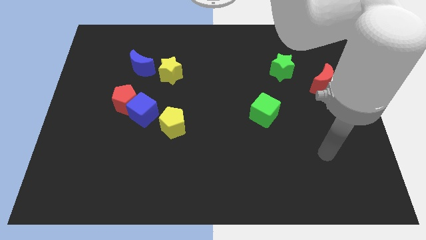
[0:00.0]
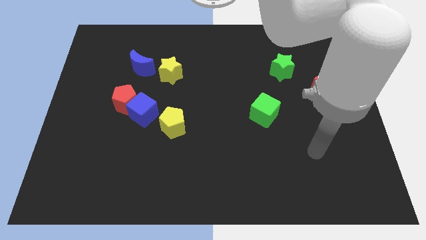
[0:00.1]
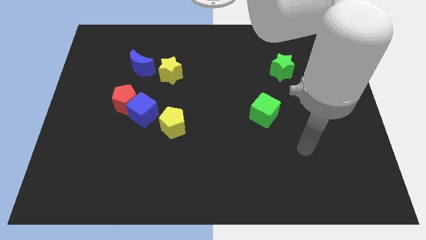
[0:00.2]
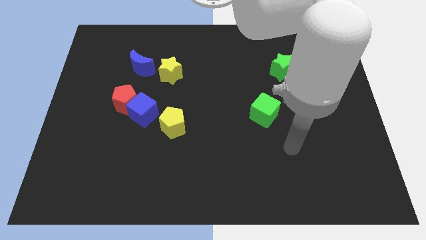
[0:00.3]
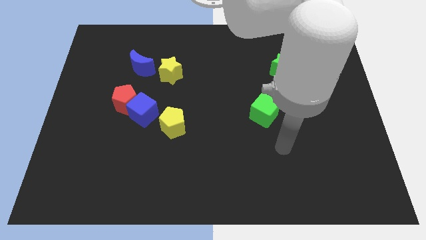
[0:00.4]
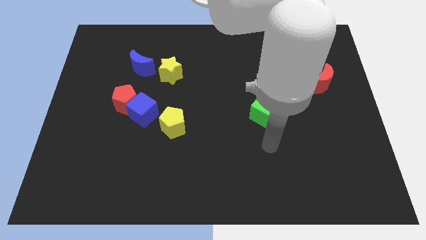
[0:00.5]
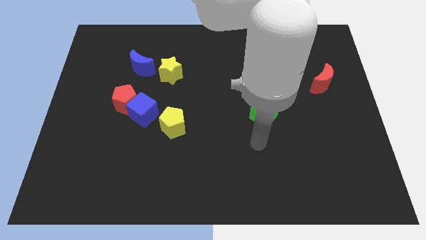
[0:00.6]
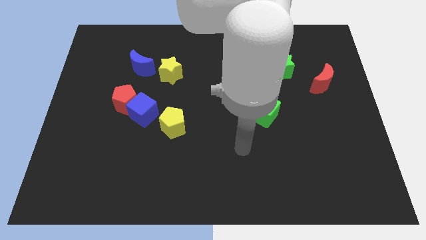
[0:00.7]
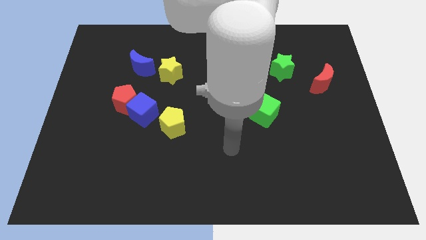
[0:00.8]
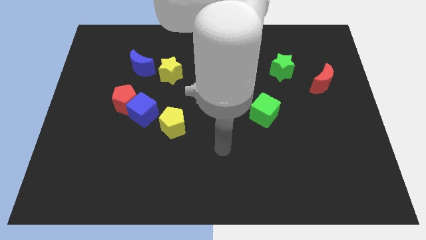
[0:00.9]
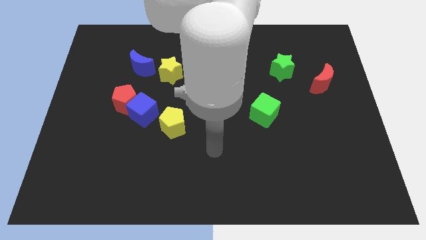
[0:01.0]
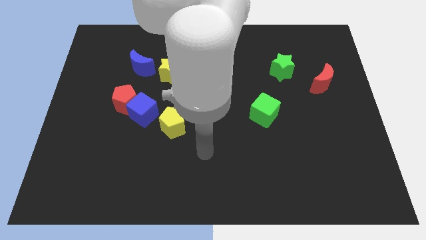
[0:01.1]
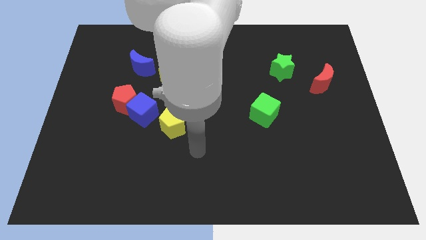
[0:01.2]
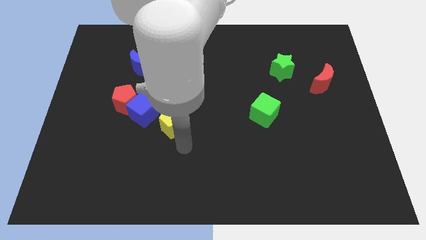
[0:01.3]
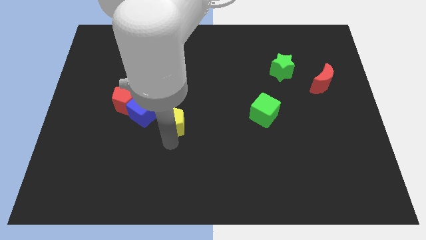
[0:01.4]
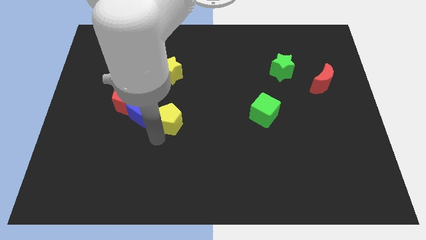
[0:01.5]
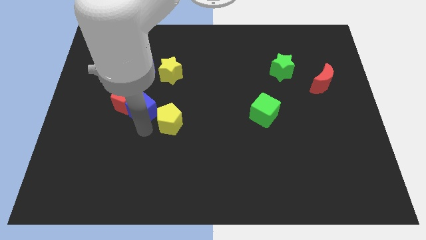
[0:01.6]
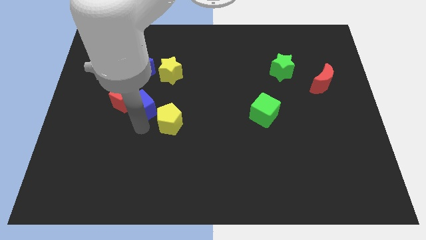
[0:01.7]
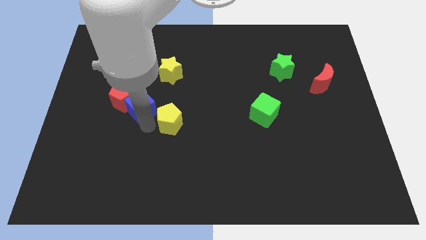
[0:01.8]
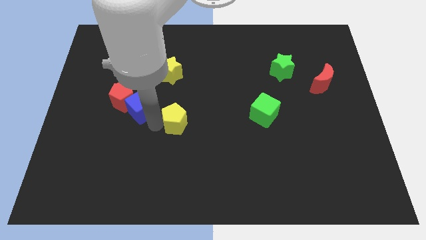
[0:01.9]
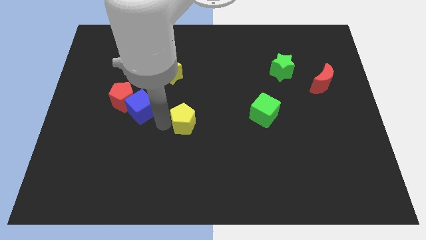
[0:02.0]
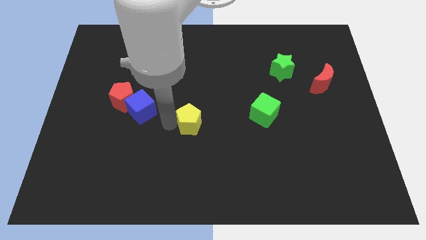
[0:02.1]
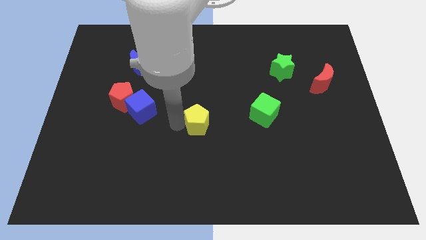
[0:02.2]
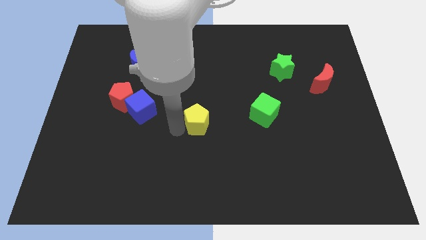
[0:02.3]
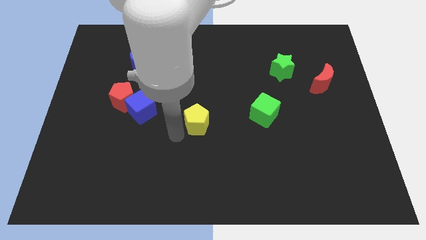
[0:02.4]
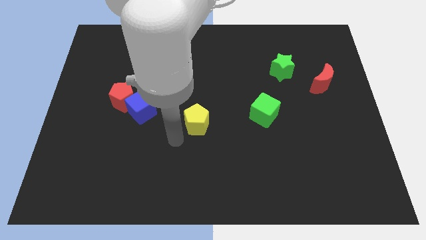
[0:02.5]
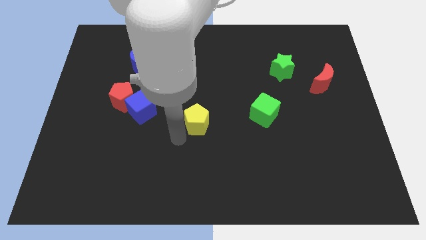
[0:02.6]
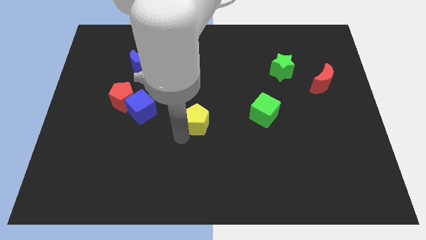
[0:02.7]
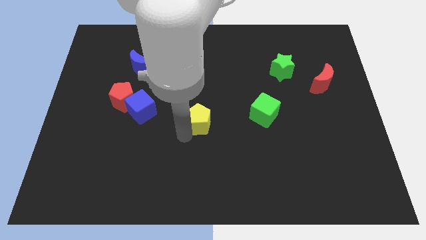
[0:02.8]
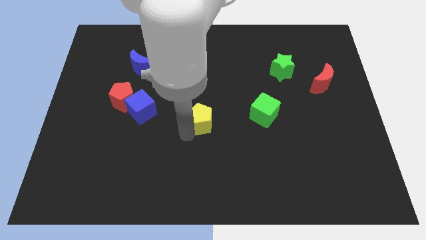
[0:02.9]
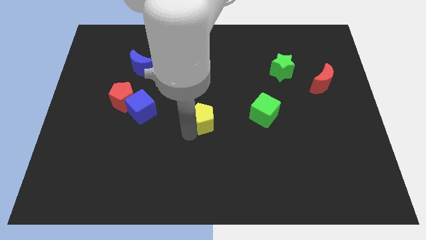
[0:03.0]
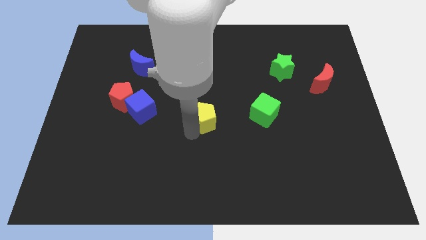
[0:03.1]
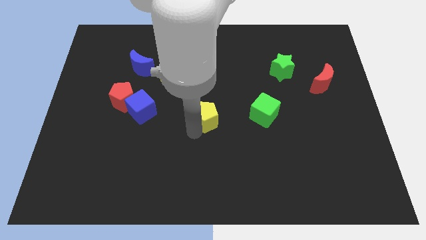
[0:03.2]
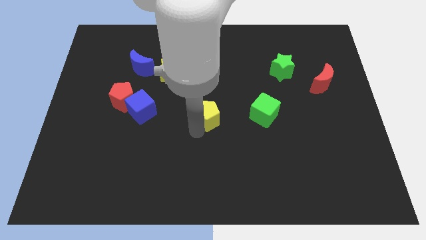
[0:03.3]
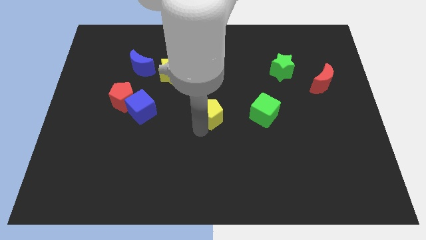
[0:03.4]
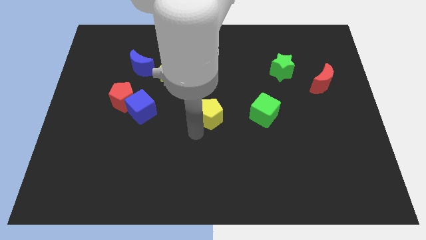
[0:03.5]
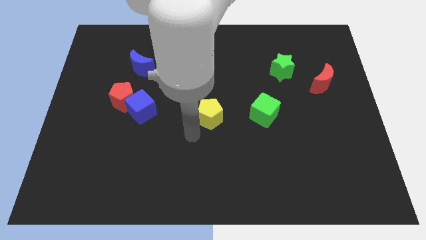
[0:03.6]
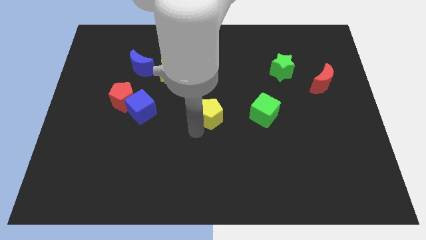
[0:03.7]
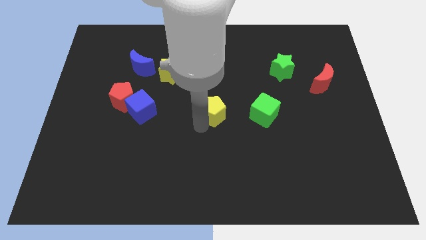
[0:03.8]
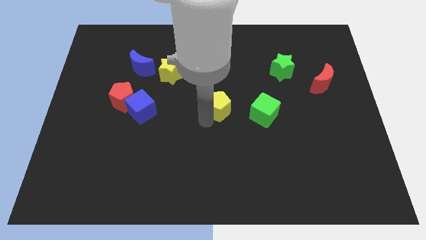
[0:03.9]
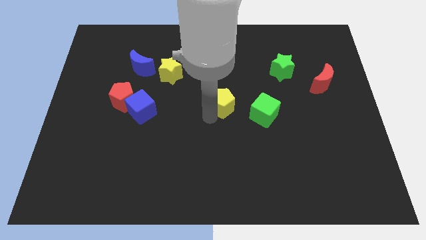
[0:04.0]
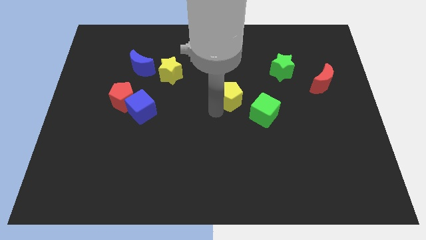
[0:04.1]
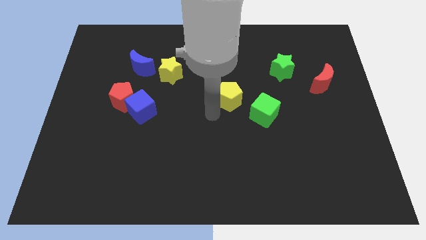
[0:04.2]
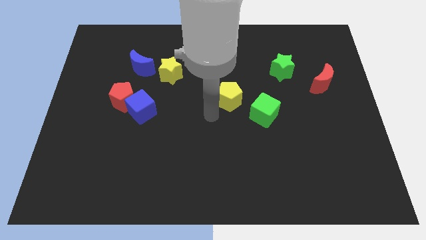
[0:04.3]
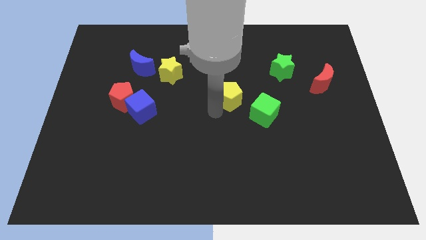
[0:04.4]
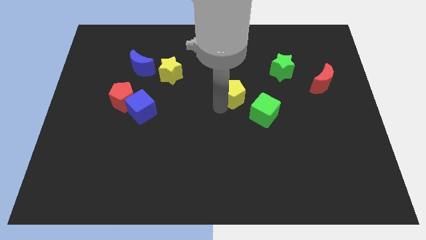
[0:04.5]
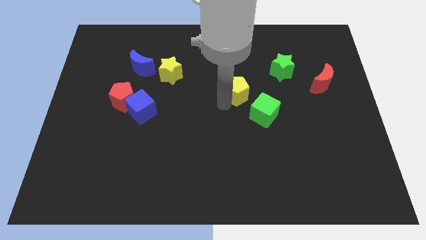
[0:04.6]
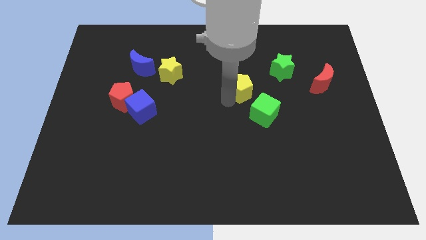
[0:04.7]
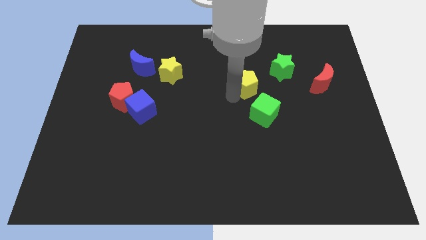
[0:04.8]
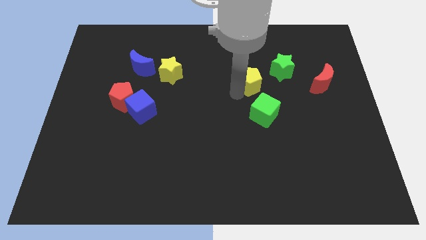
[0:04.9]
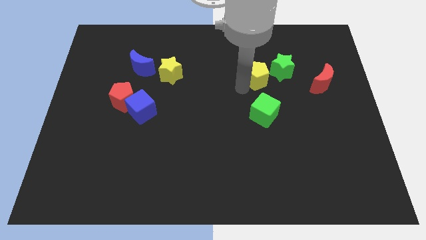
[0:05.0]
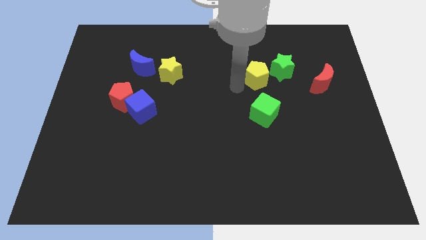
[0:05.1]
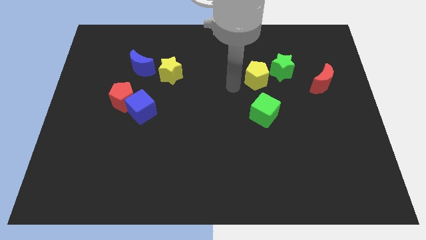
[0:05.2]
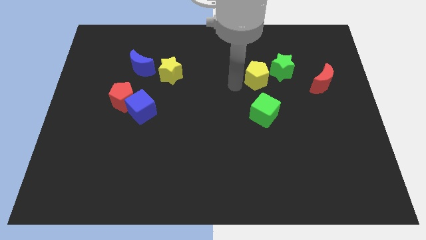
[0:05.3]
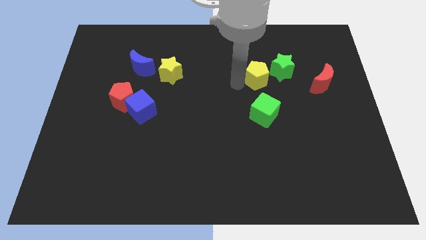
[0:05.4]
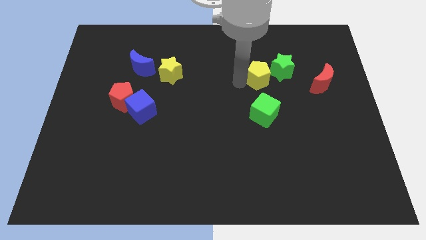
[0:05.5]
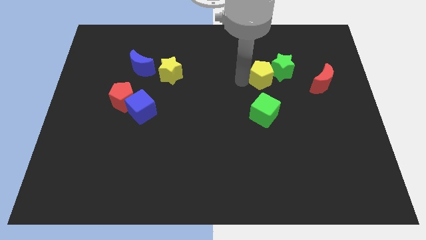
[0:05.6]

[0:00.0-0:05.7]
push the yellow pentagon towards the green star

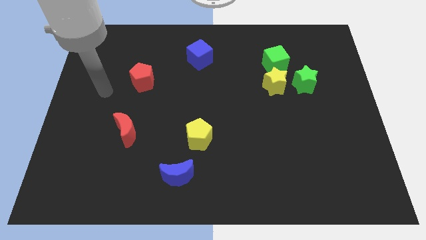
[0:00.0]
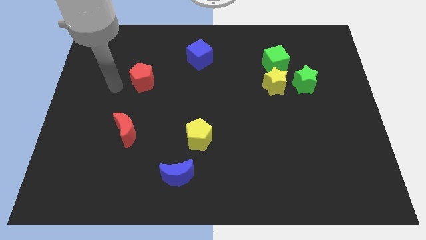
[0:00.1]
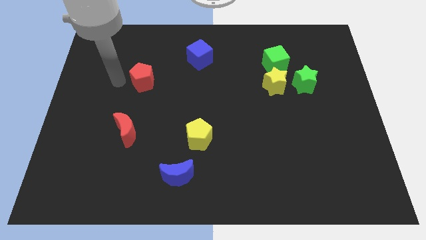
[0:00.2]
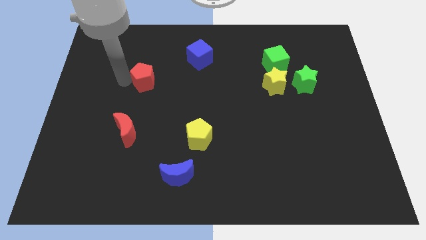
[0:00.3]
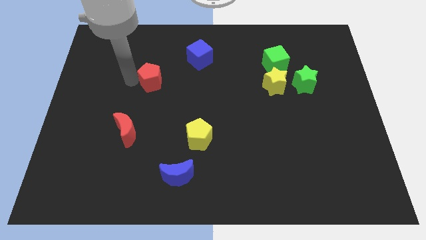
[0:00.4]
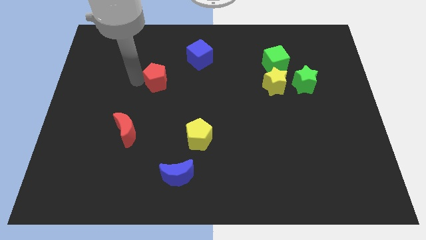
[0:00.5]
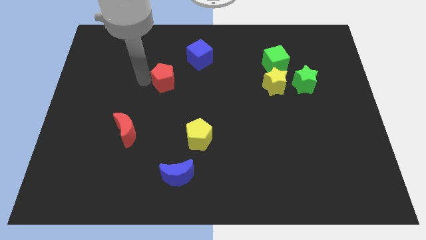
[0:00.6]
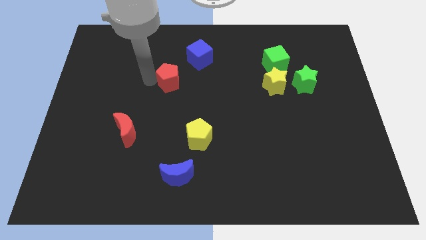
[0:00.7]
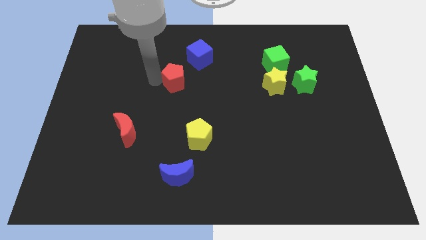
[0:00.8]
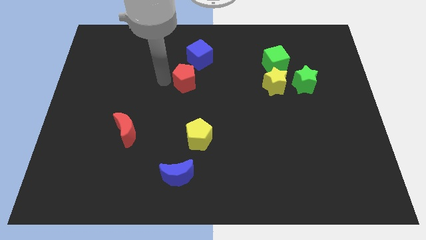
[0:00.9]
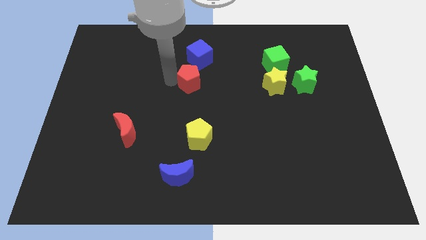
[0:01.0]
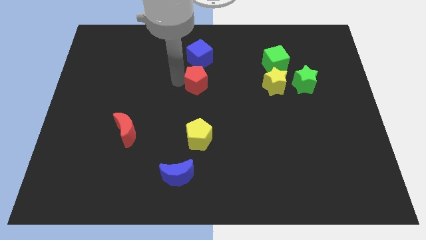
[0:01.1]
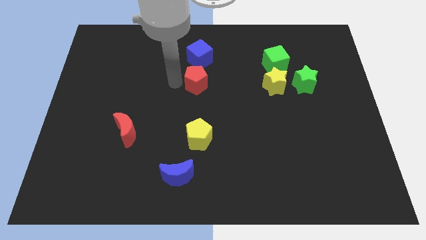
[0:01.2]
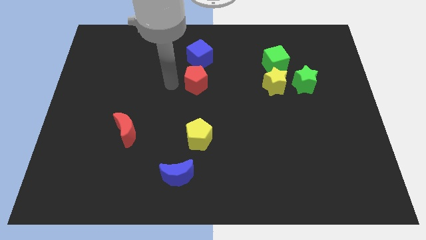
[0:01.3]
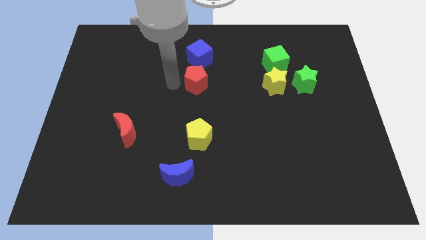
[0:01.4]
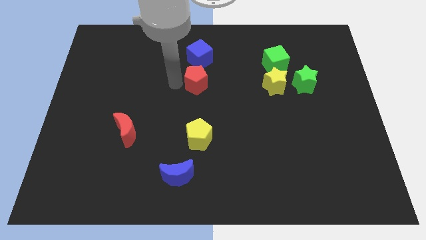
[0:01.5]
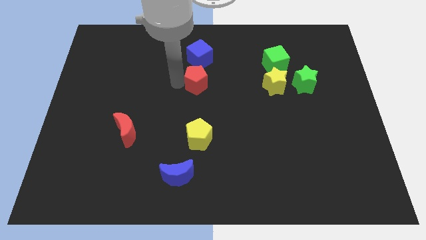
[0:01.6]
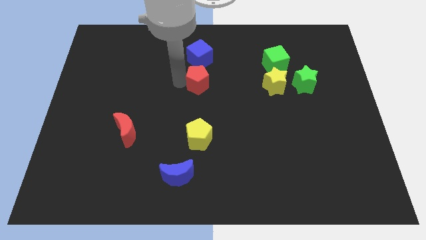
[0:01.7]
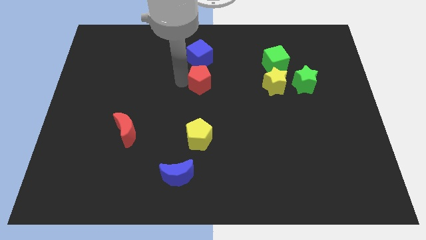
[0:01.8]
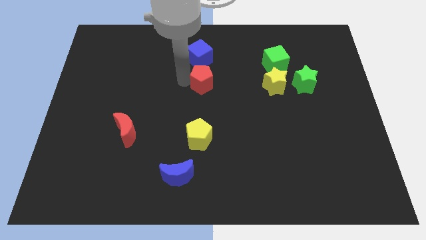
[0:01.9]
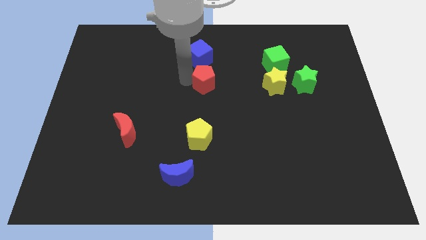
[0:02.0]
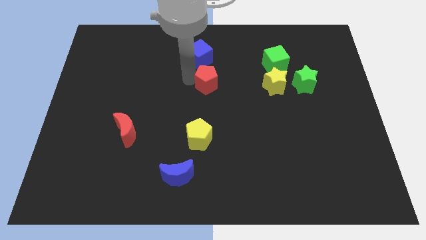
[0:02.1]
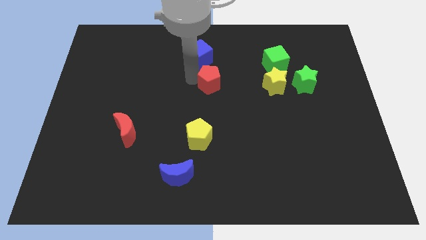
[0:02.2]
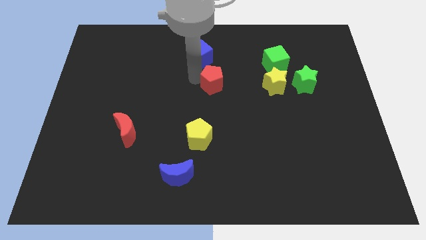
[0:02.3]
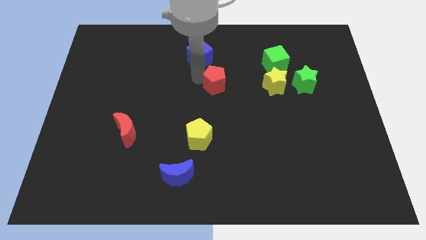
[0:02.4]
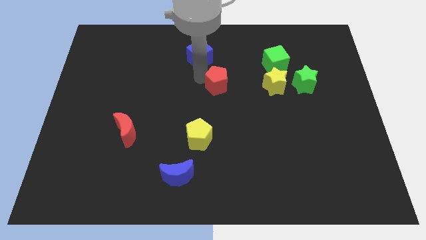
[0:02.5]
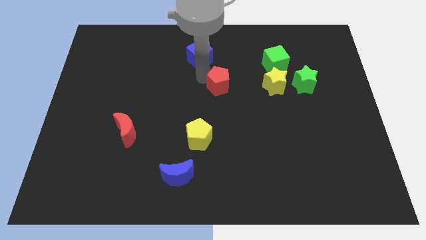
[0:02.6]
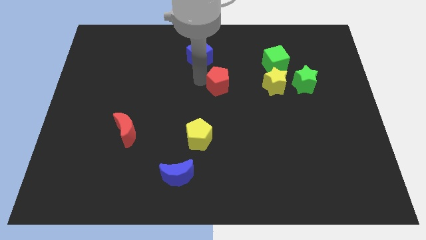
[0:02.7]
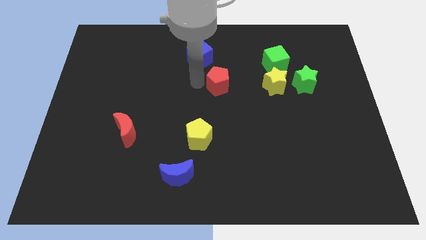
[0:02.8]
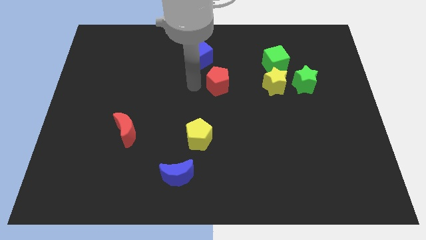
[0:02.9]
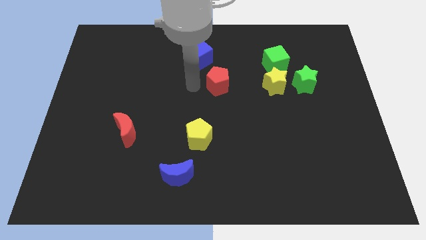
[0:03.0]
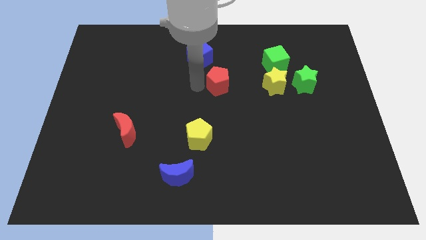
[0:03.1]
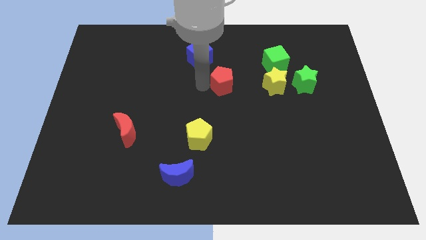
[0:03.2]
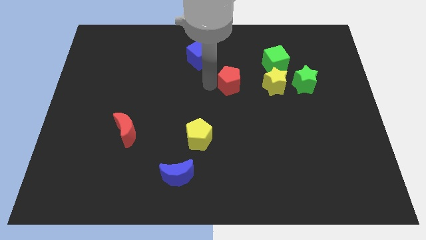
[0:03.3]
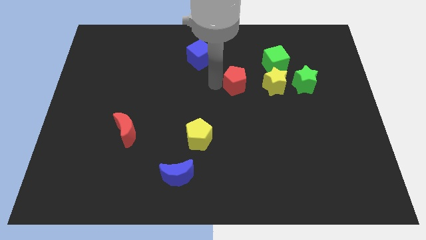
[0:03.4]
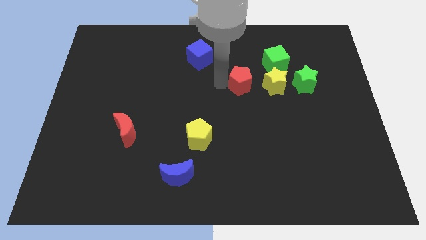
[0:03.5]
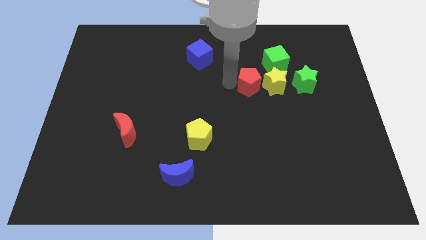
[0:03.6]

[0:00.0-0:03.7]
move the red pentagon next to the yellow star
